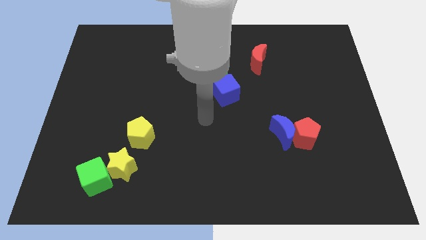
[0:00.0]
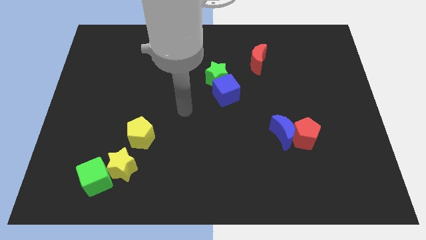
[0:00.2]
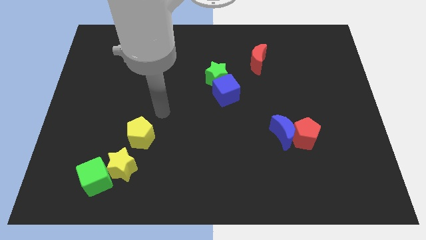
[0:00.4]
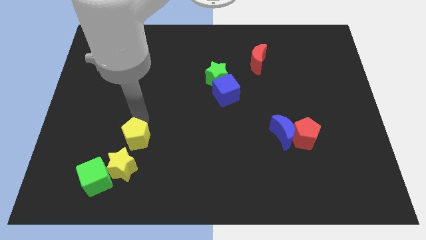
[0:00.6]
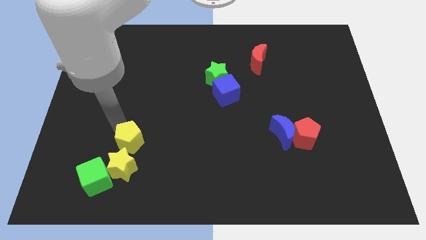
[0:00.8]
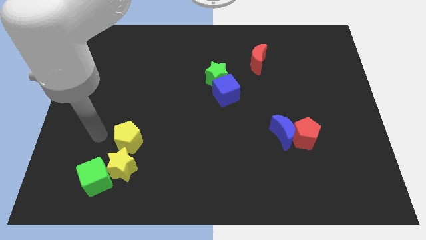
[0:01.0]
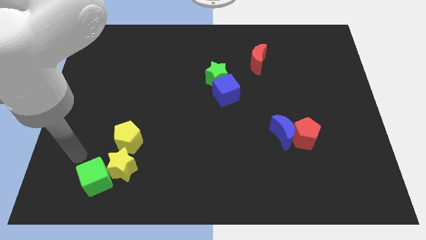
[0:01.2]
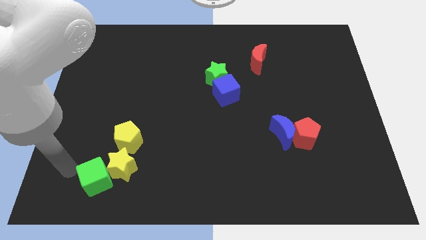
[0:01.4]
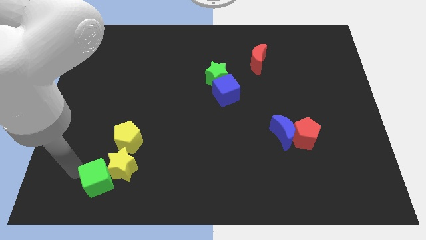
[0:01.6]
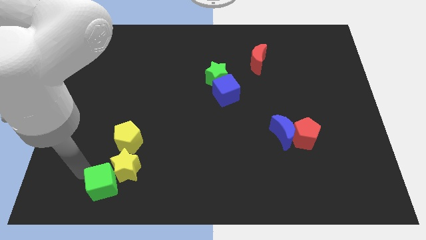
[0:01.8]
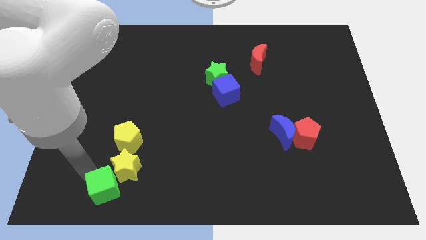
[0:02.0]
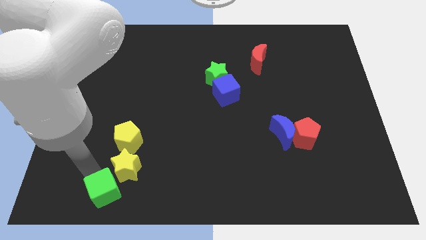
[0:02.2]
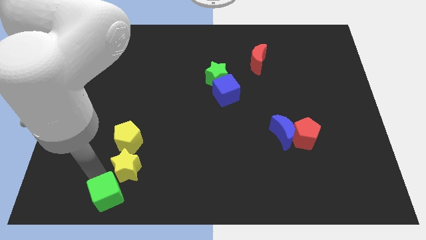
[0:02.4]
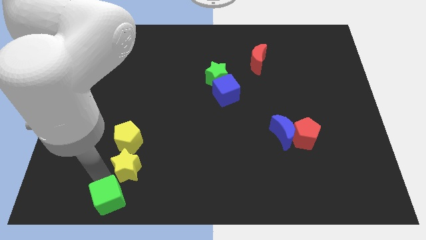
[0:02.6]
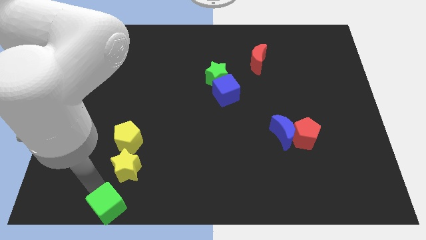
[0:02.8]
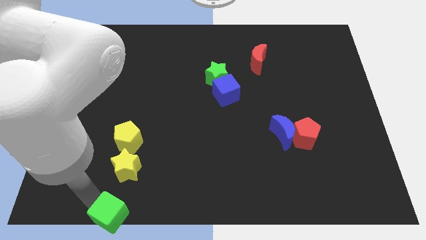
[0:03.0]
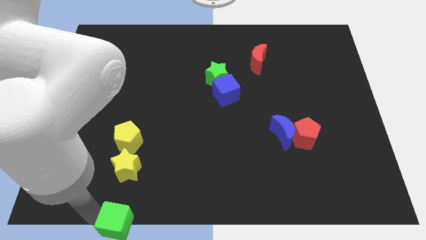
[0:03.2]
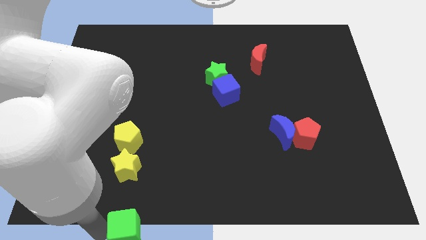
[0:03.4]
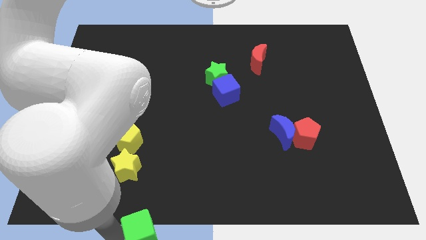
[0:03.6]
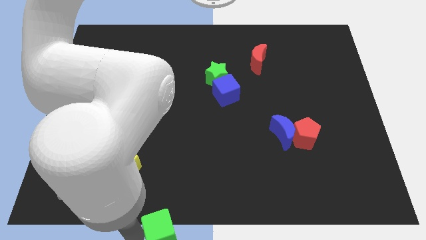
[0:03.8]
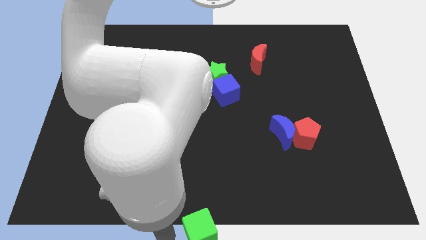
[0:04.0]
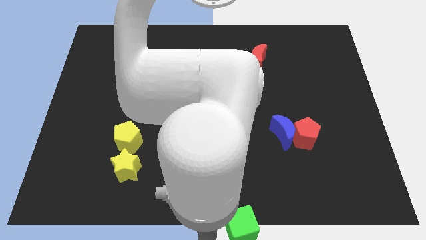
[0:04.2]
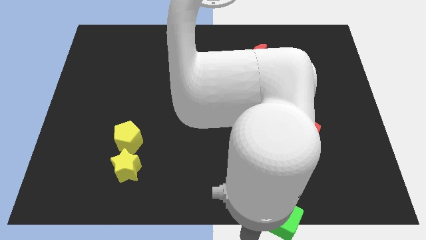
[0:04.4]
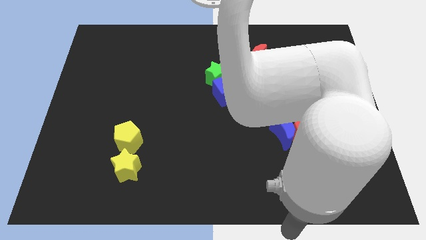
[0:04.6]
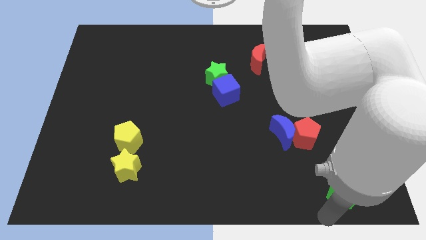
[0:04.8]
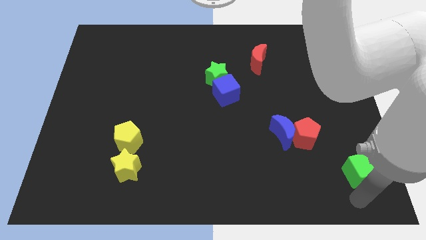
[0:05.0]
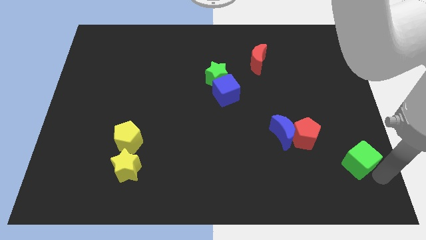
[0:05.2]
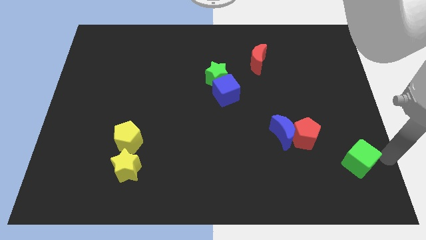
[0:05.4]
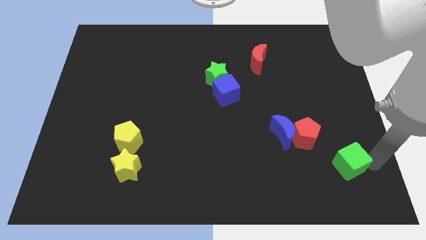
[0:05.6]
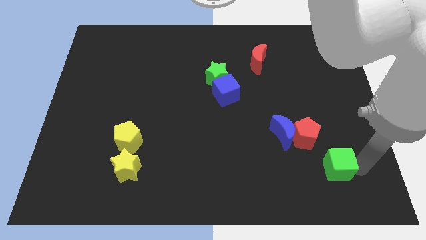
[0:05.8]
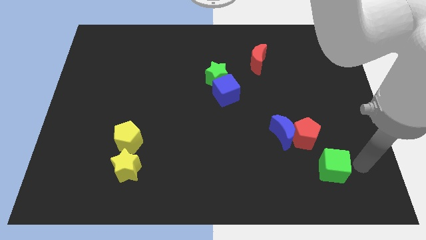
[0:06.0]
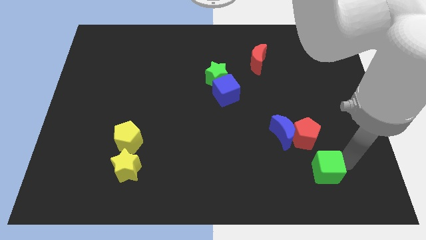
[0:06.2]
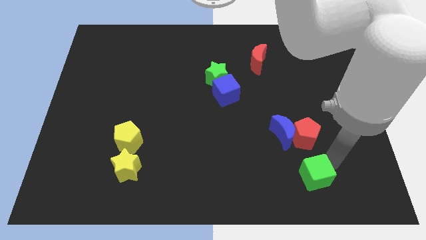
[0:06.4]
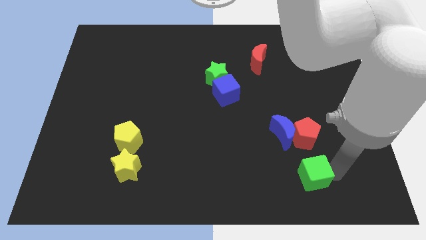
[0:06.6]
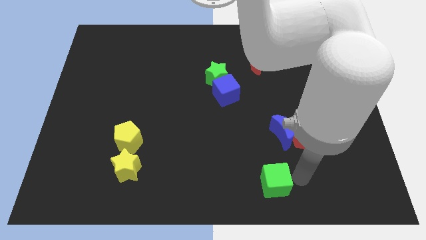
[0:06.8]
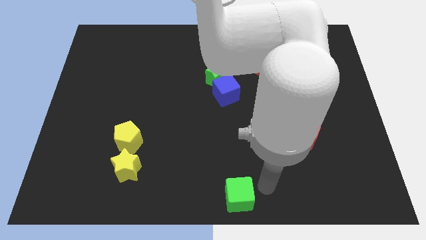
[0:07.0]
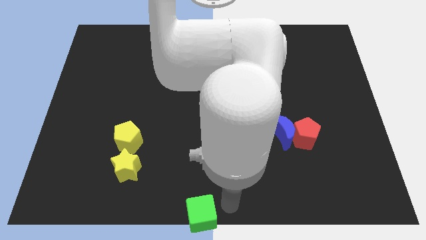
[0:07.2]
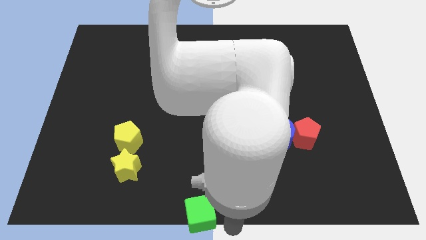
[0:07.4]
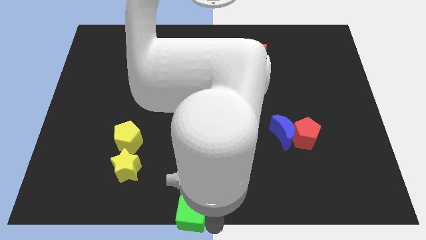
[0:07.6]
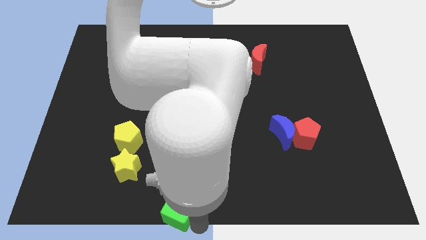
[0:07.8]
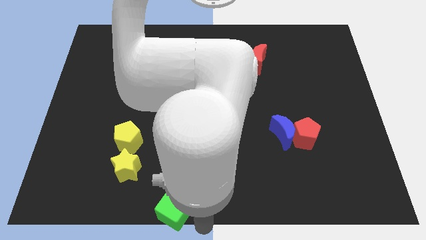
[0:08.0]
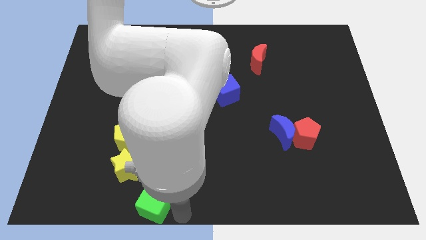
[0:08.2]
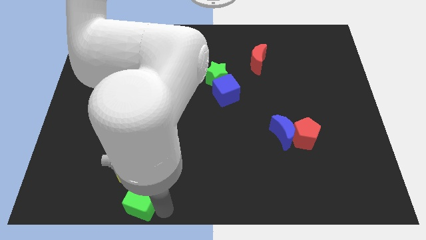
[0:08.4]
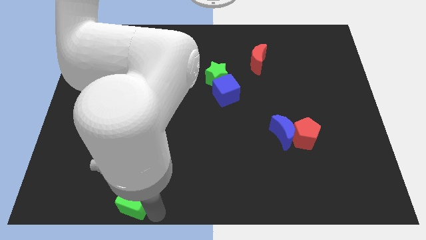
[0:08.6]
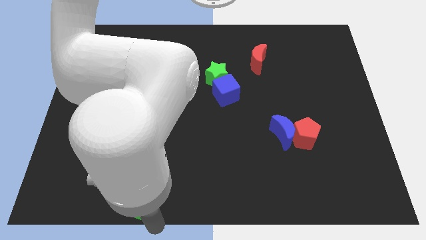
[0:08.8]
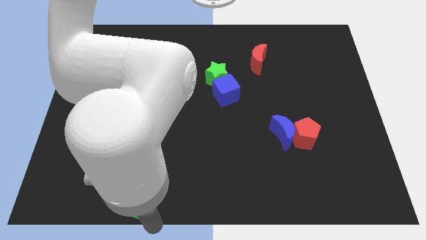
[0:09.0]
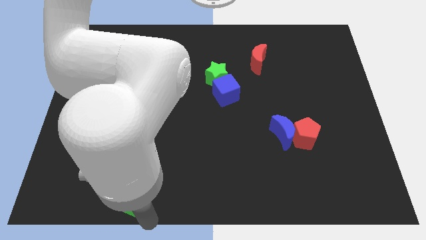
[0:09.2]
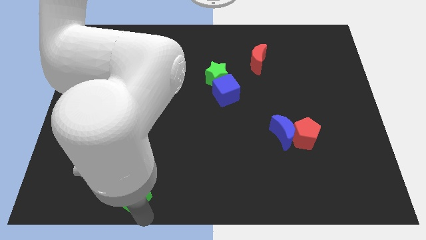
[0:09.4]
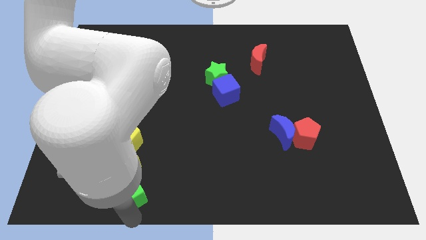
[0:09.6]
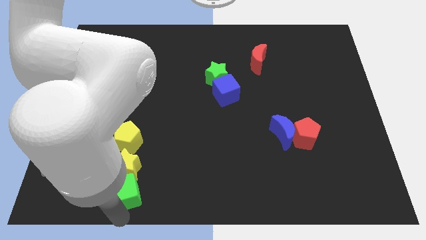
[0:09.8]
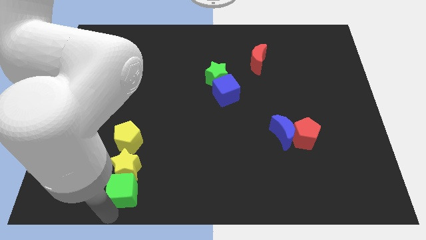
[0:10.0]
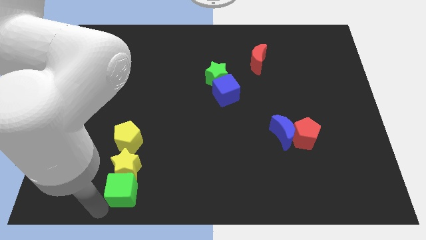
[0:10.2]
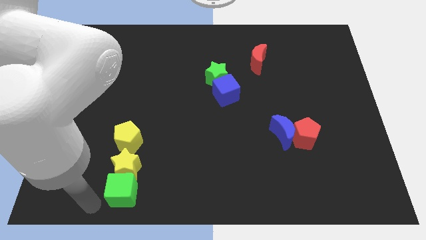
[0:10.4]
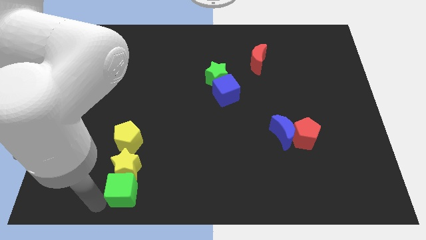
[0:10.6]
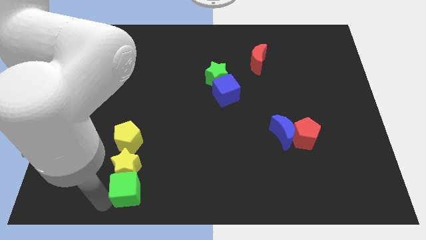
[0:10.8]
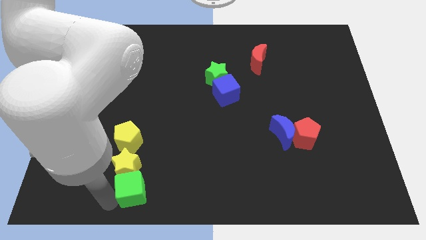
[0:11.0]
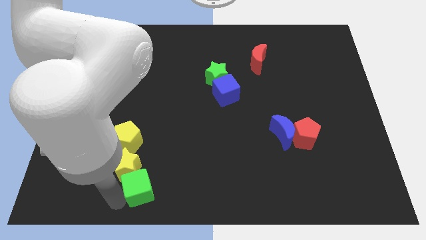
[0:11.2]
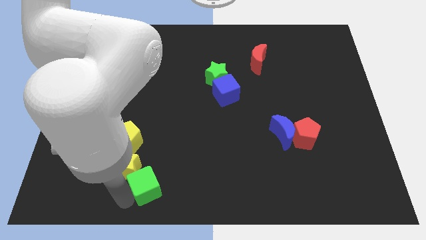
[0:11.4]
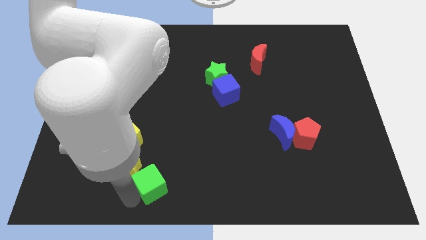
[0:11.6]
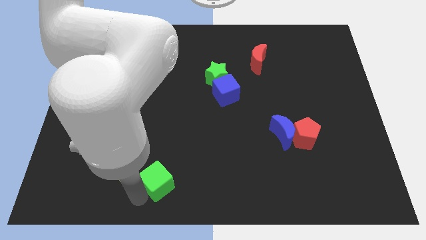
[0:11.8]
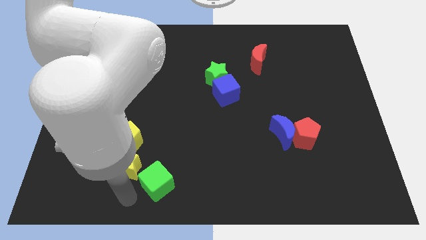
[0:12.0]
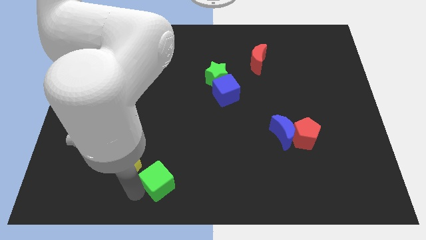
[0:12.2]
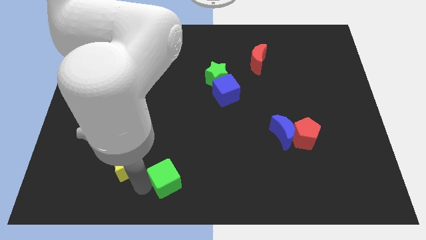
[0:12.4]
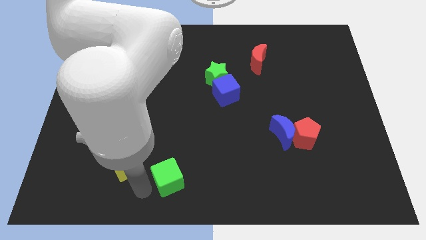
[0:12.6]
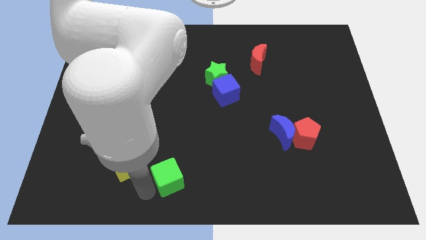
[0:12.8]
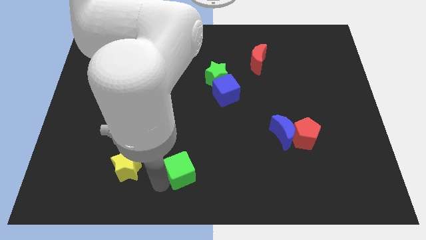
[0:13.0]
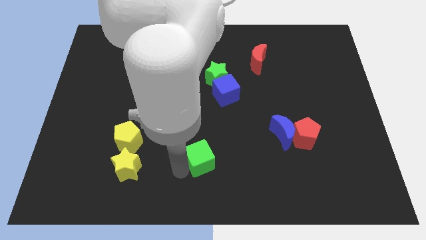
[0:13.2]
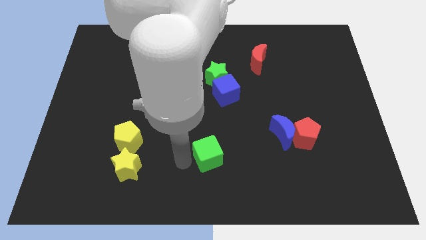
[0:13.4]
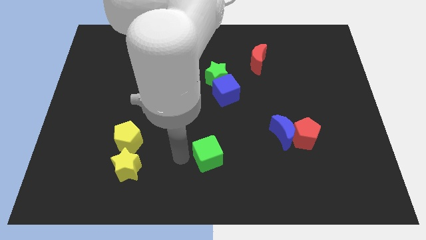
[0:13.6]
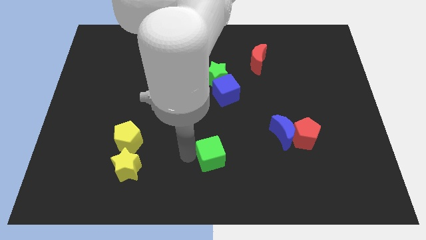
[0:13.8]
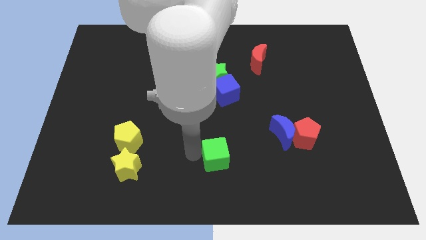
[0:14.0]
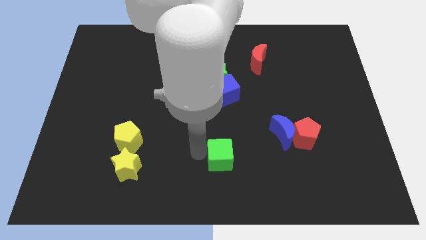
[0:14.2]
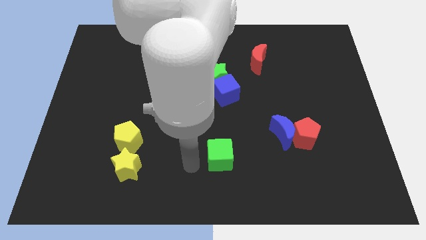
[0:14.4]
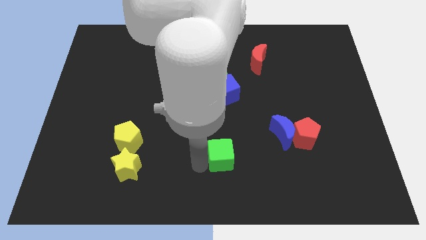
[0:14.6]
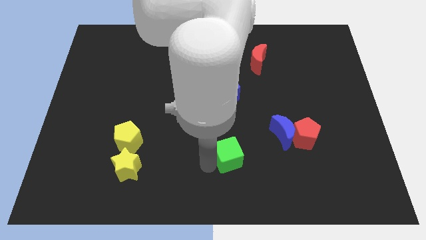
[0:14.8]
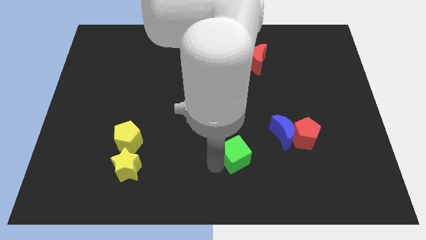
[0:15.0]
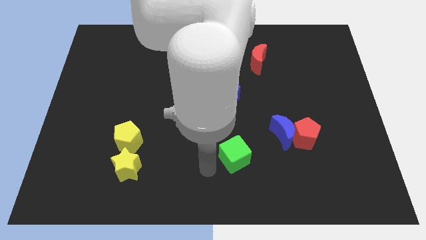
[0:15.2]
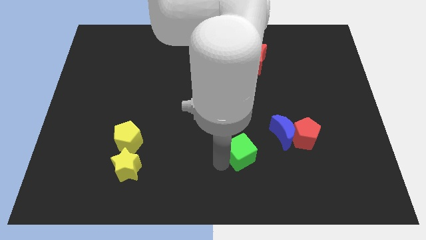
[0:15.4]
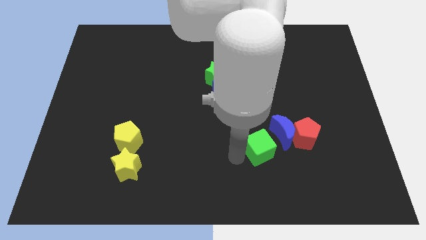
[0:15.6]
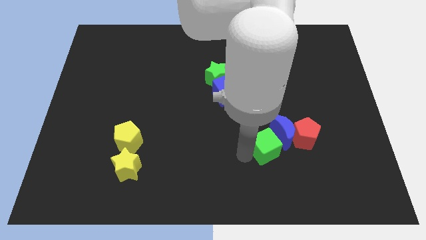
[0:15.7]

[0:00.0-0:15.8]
put the green cube towards the blue moon
